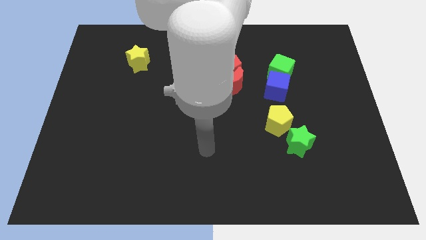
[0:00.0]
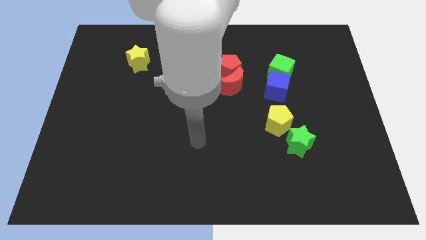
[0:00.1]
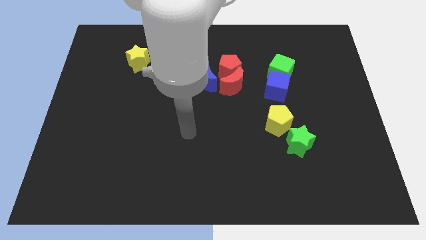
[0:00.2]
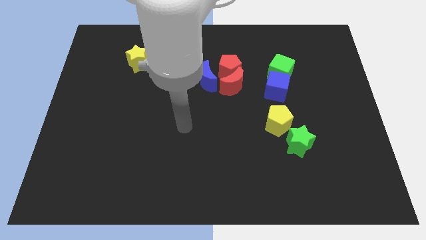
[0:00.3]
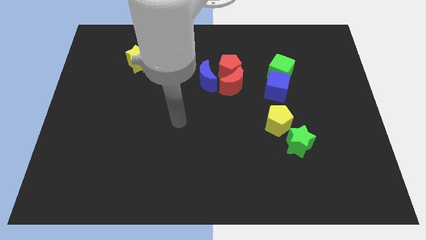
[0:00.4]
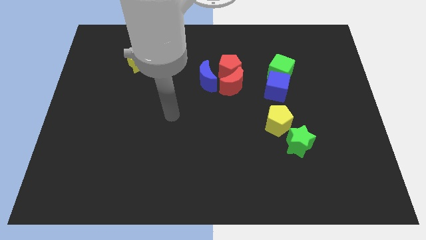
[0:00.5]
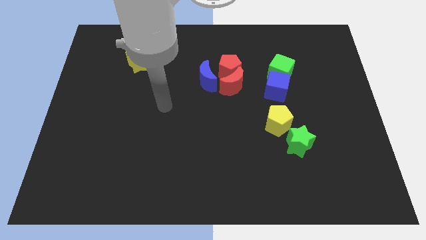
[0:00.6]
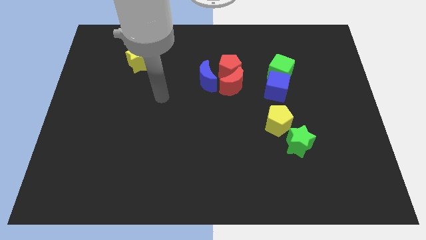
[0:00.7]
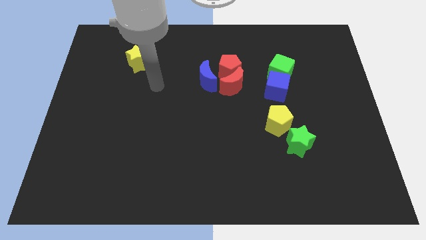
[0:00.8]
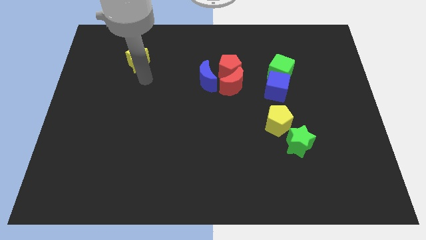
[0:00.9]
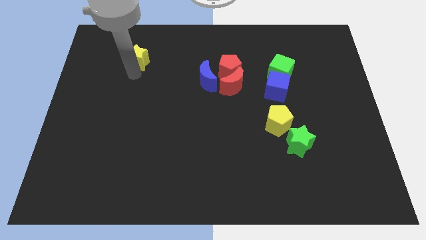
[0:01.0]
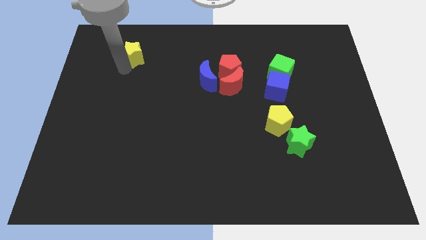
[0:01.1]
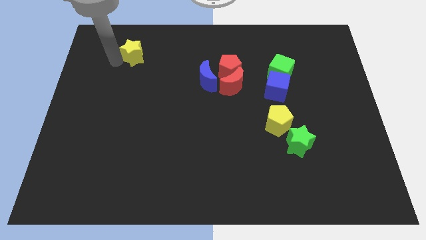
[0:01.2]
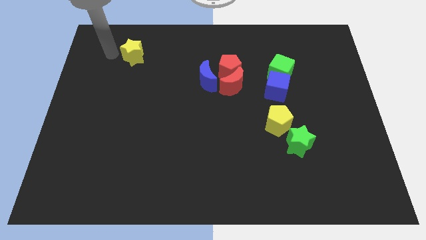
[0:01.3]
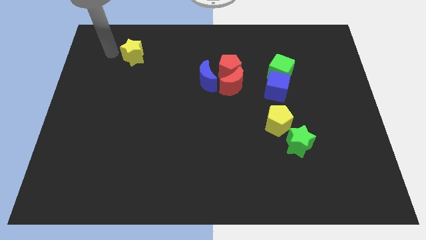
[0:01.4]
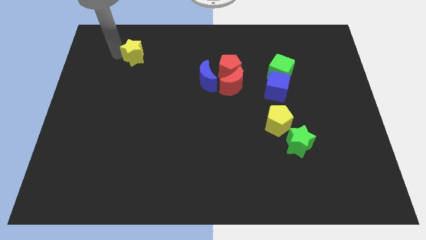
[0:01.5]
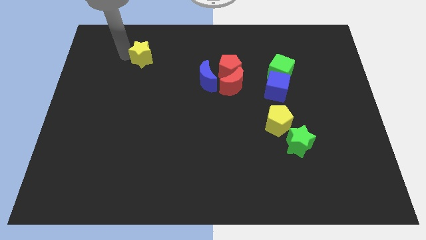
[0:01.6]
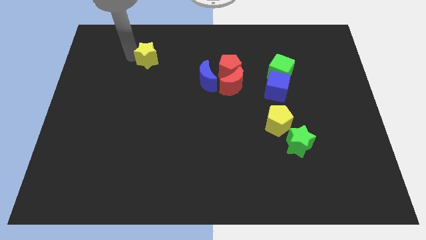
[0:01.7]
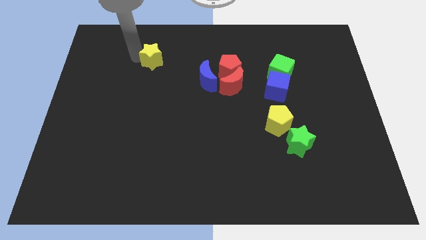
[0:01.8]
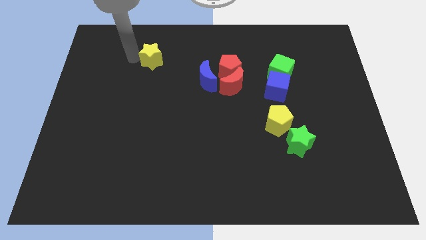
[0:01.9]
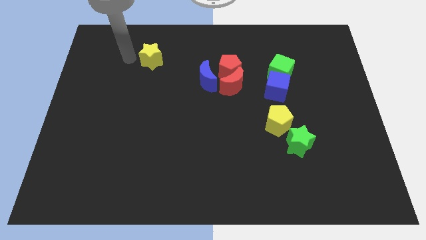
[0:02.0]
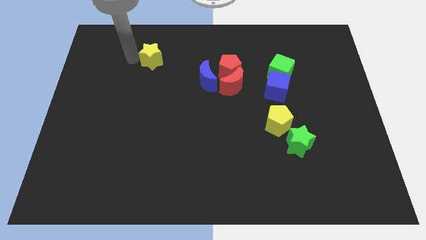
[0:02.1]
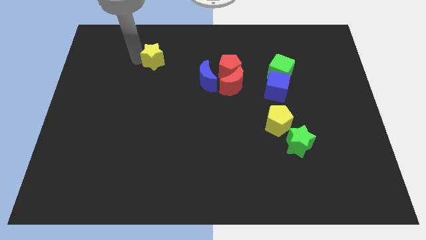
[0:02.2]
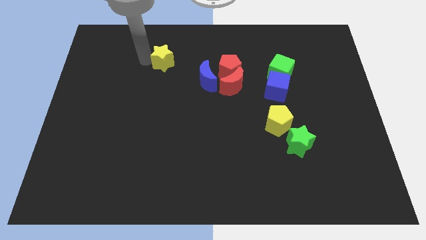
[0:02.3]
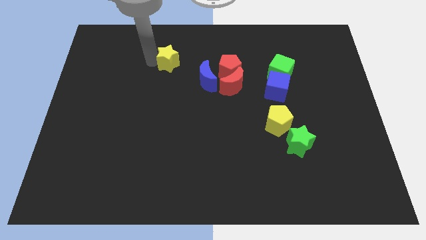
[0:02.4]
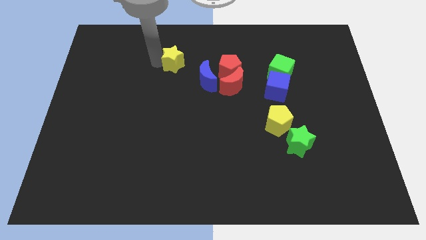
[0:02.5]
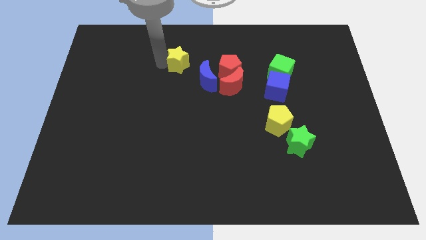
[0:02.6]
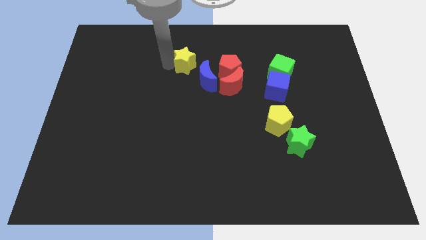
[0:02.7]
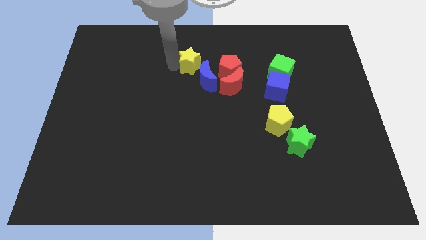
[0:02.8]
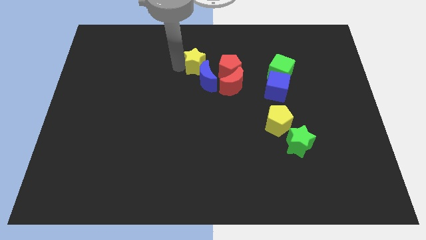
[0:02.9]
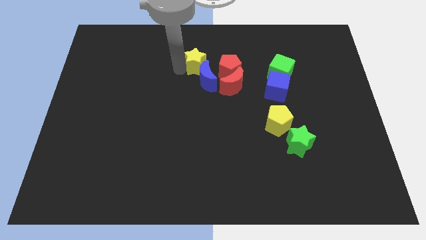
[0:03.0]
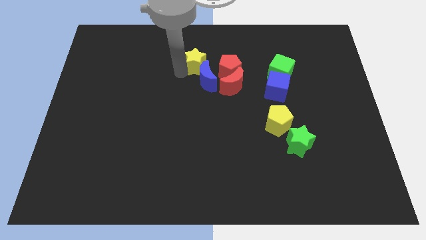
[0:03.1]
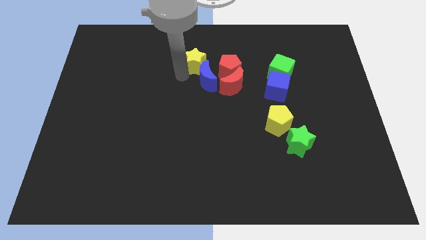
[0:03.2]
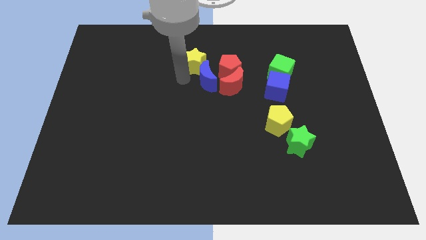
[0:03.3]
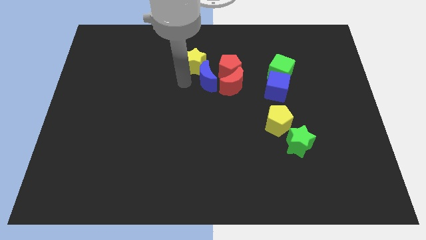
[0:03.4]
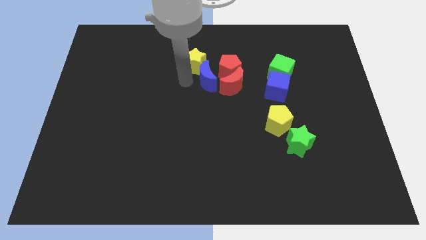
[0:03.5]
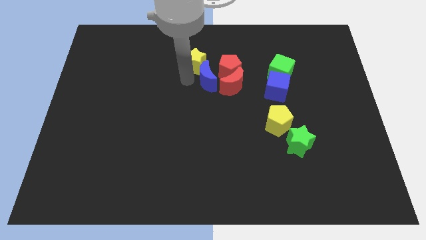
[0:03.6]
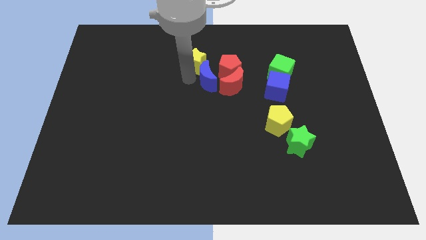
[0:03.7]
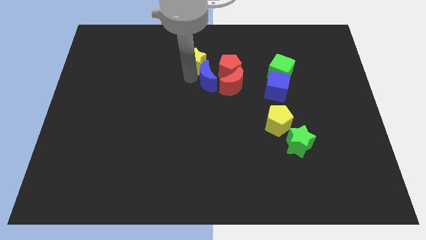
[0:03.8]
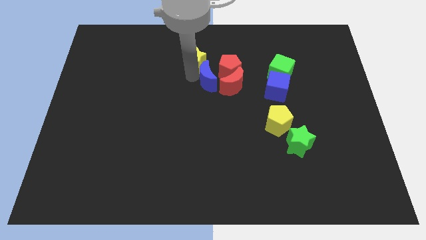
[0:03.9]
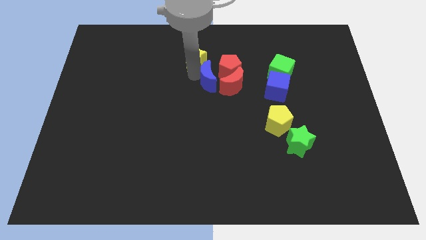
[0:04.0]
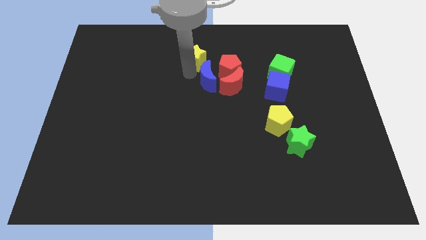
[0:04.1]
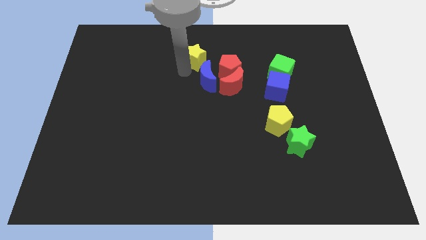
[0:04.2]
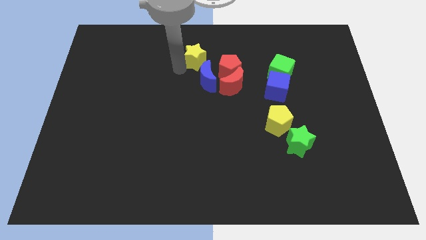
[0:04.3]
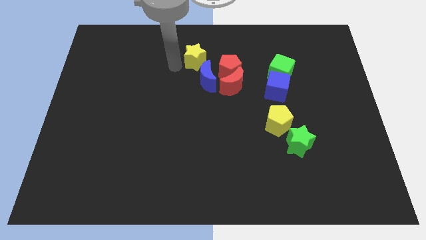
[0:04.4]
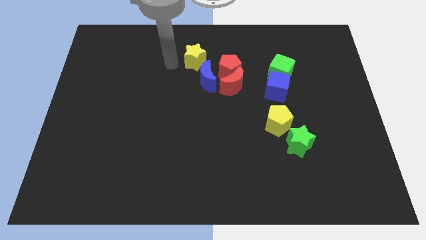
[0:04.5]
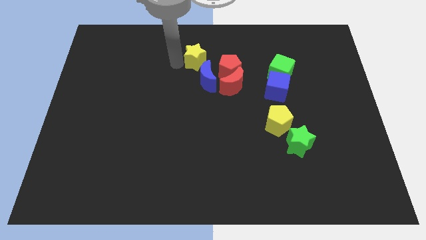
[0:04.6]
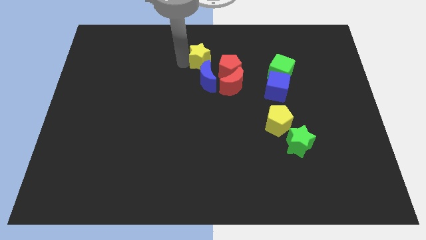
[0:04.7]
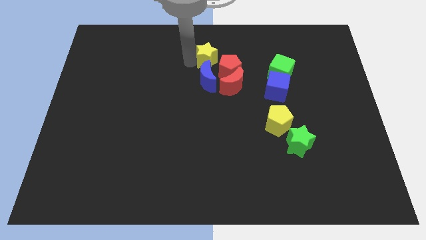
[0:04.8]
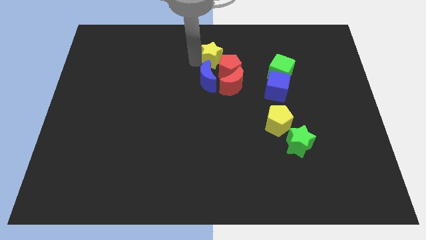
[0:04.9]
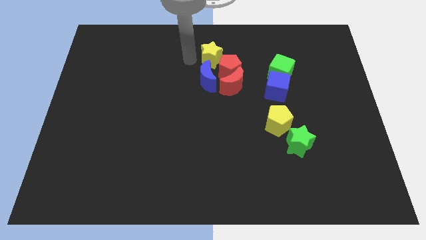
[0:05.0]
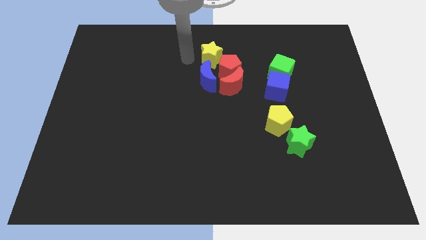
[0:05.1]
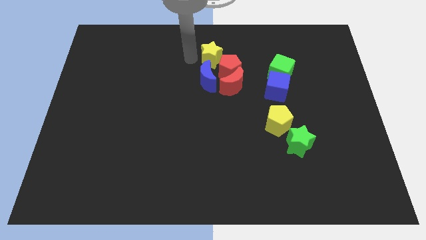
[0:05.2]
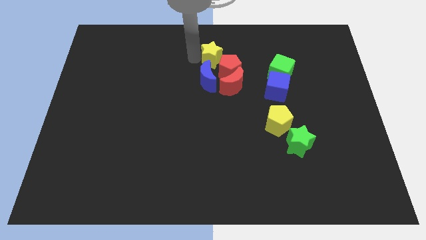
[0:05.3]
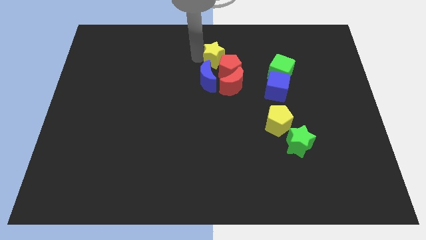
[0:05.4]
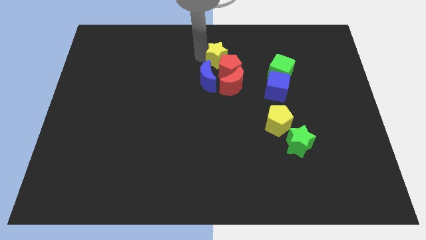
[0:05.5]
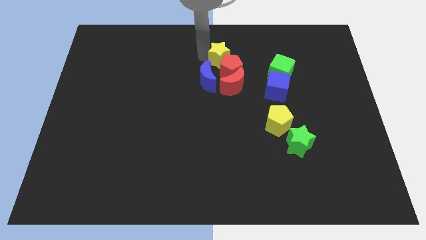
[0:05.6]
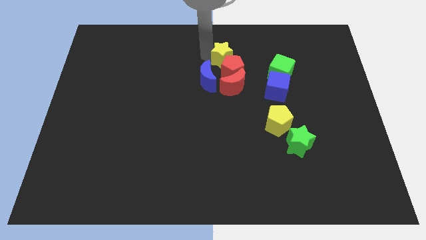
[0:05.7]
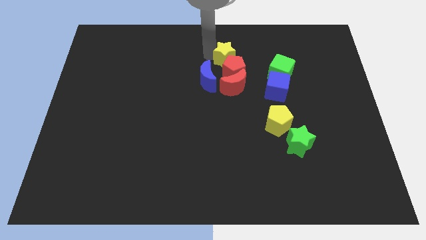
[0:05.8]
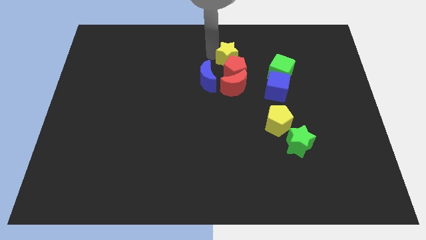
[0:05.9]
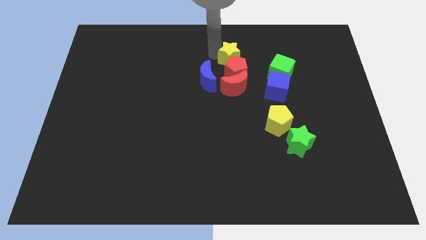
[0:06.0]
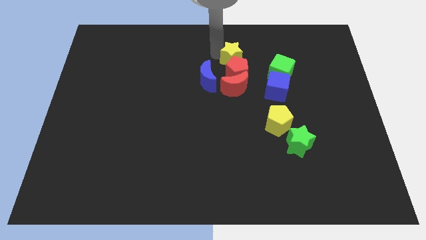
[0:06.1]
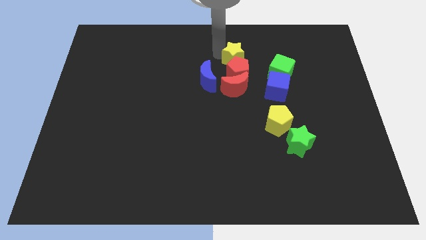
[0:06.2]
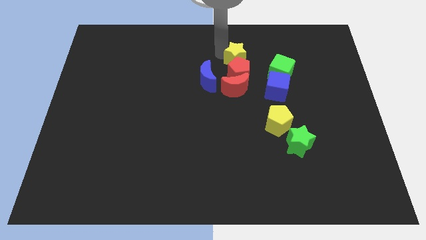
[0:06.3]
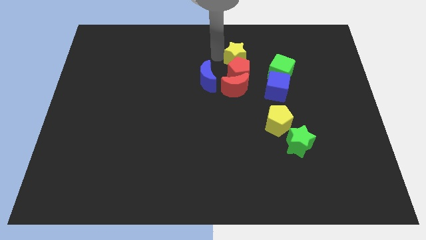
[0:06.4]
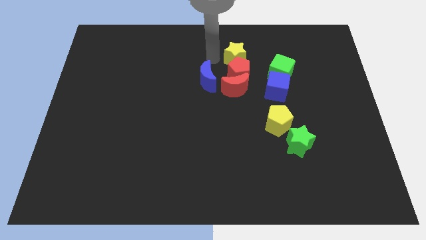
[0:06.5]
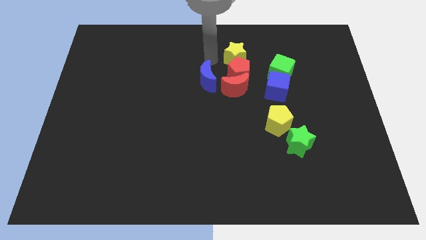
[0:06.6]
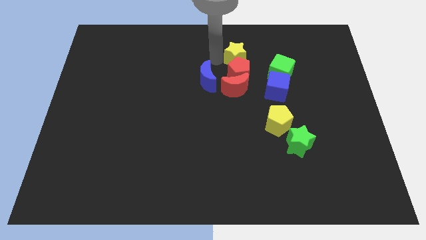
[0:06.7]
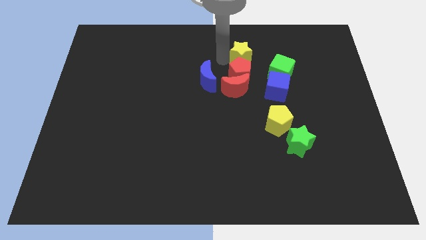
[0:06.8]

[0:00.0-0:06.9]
move the yellow star diagonally up and to the left of the green cube

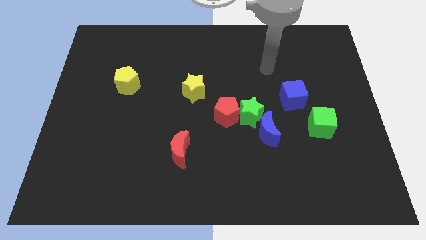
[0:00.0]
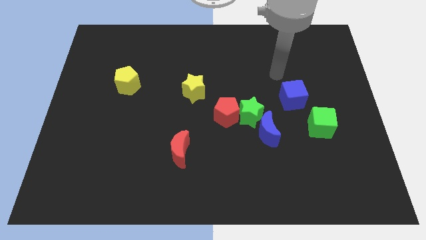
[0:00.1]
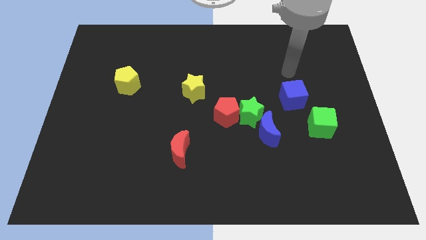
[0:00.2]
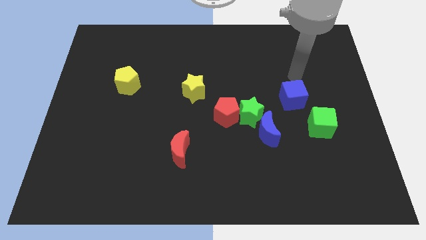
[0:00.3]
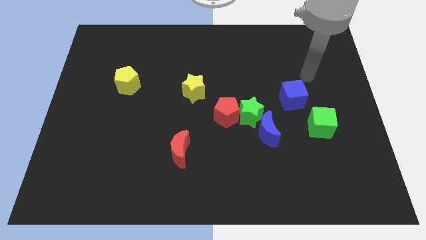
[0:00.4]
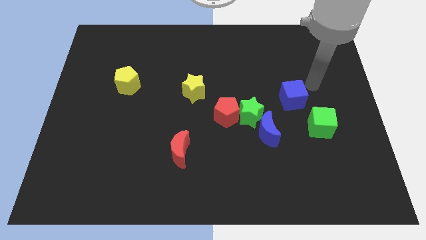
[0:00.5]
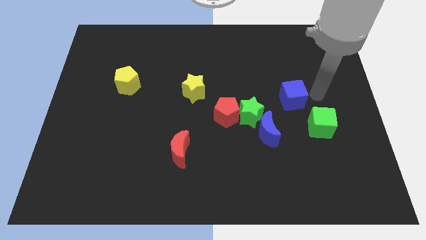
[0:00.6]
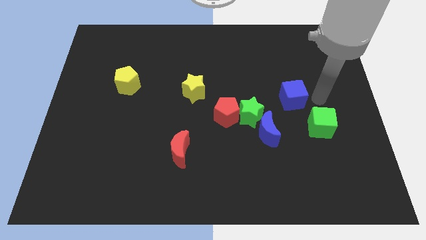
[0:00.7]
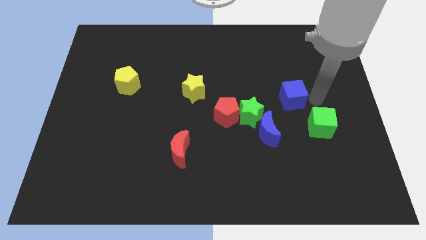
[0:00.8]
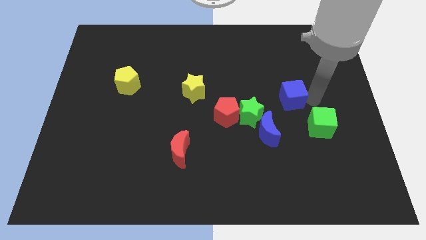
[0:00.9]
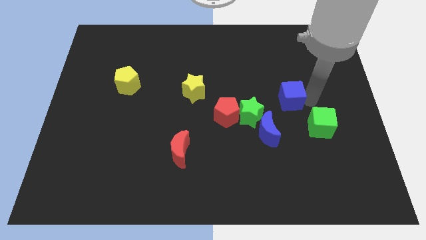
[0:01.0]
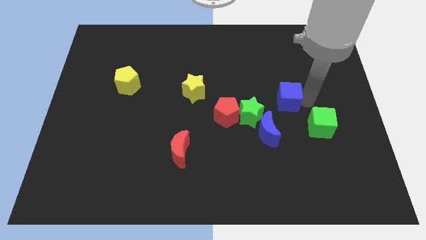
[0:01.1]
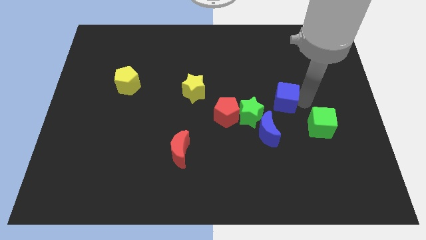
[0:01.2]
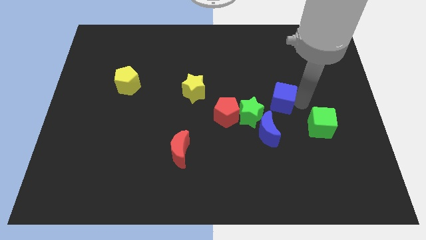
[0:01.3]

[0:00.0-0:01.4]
put the blue cube to the top of the blue moon
